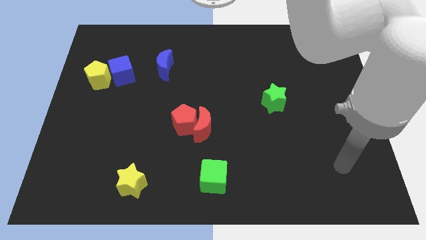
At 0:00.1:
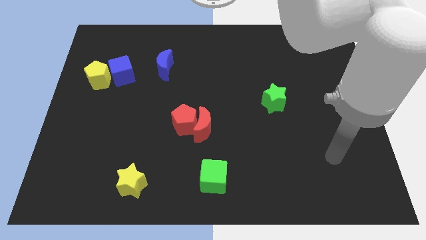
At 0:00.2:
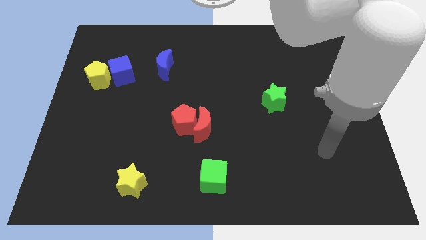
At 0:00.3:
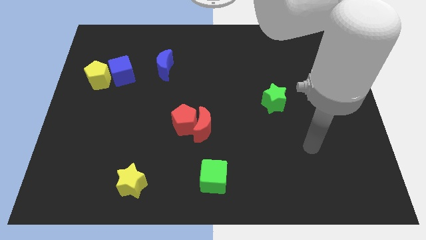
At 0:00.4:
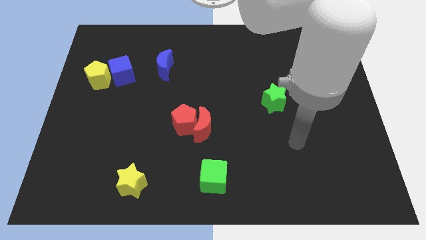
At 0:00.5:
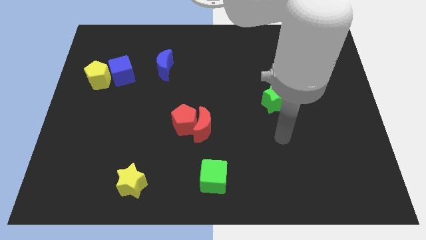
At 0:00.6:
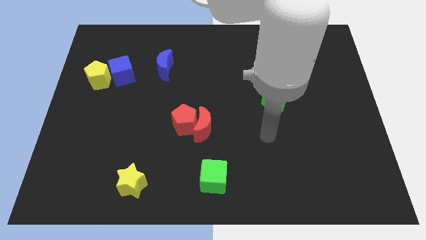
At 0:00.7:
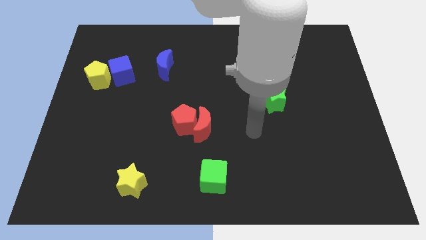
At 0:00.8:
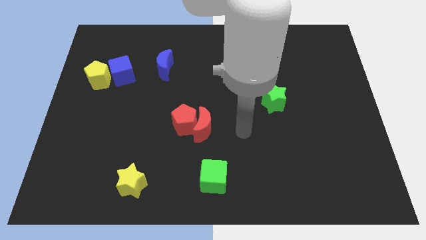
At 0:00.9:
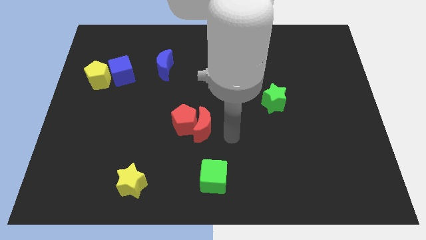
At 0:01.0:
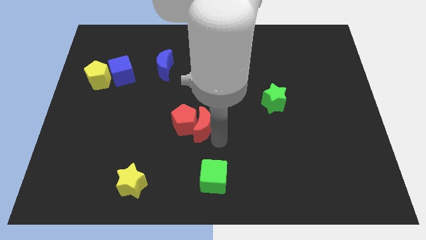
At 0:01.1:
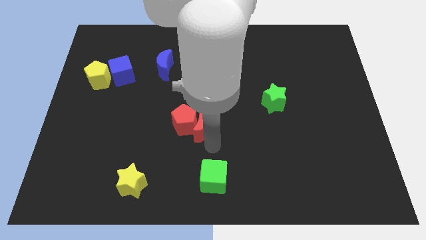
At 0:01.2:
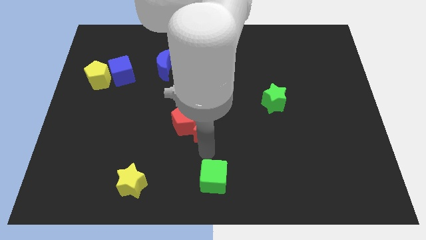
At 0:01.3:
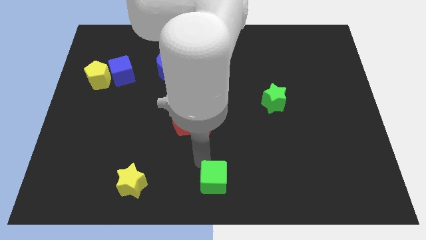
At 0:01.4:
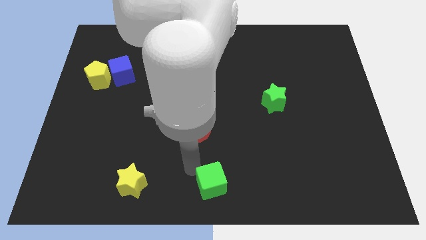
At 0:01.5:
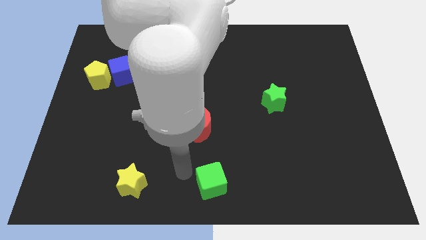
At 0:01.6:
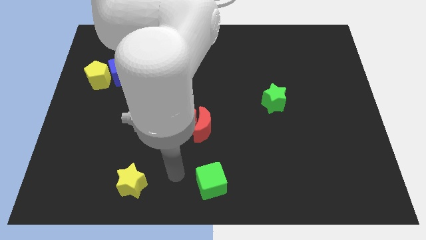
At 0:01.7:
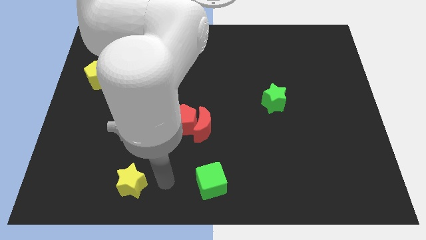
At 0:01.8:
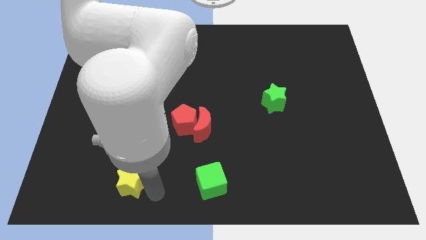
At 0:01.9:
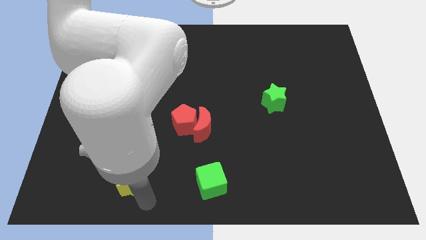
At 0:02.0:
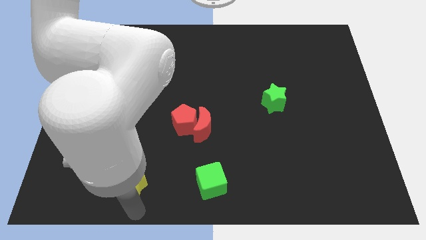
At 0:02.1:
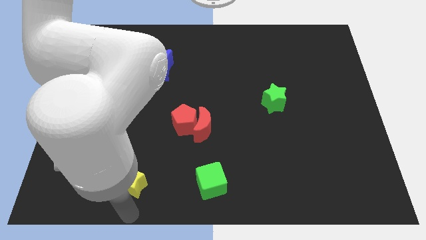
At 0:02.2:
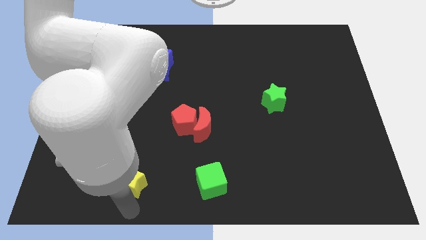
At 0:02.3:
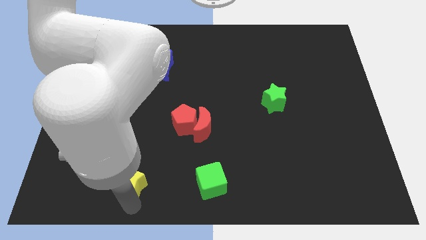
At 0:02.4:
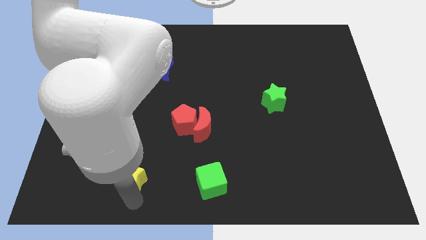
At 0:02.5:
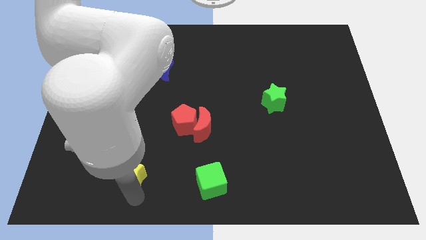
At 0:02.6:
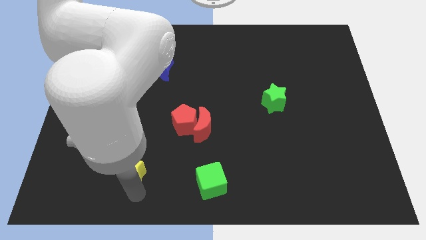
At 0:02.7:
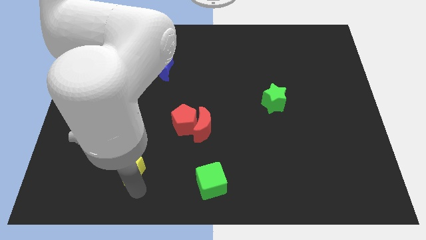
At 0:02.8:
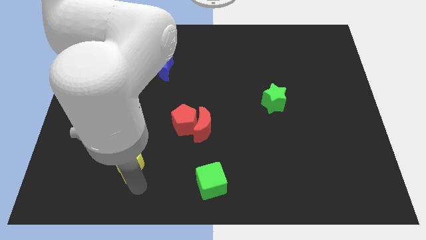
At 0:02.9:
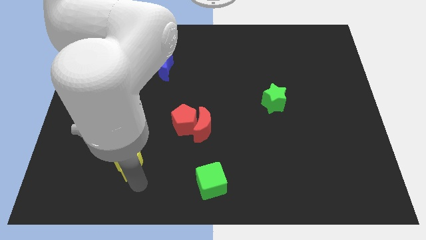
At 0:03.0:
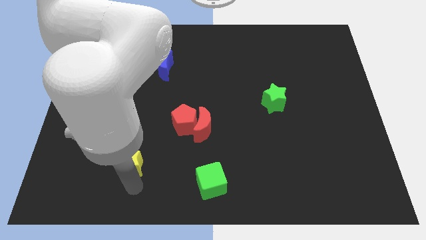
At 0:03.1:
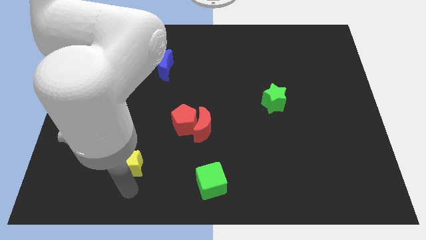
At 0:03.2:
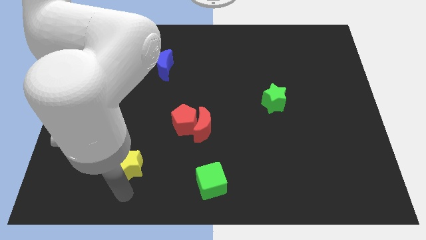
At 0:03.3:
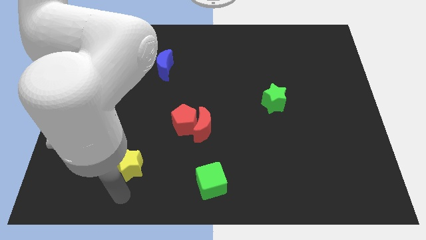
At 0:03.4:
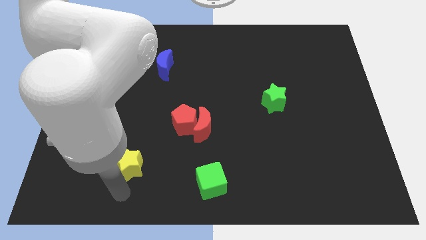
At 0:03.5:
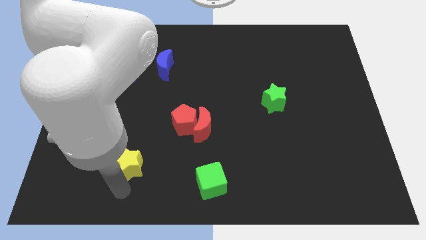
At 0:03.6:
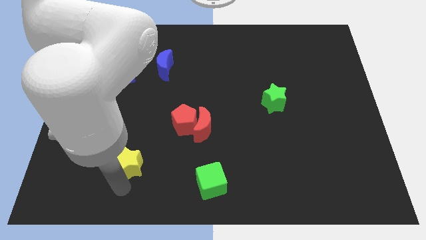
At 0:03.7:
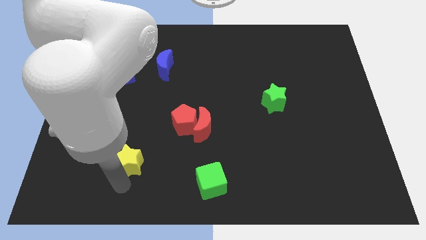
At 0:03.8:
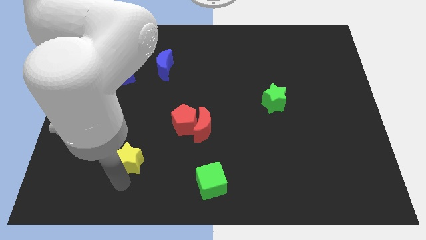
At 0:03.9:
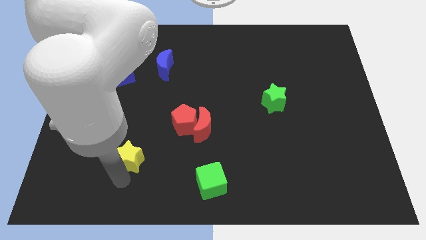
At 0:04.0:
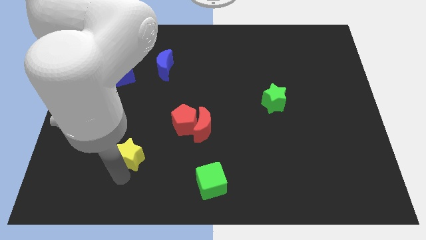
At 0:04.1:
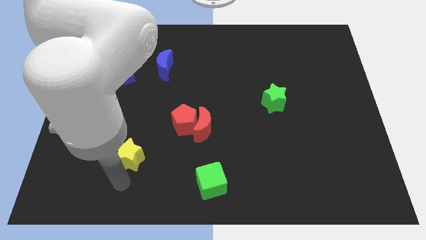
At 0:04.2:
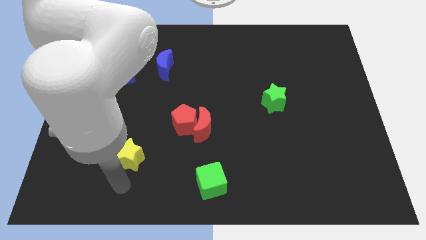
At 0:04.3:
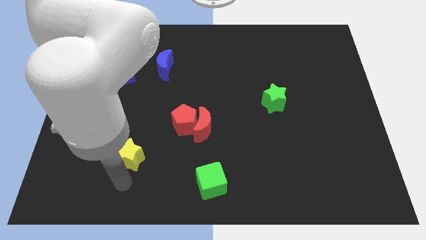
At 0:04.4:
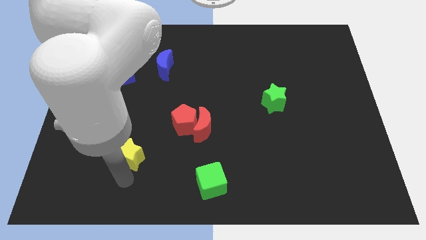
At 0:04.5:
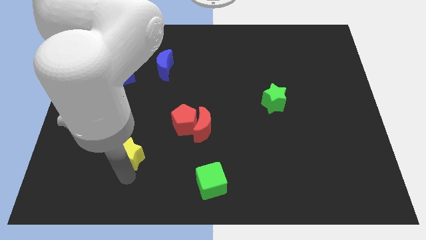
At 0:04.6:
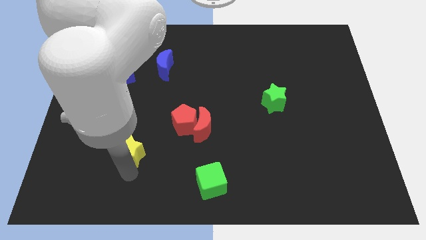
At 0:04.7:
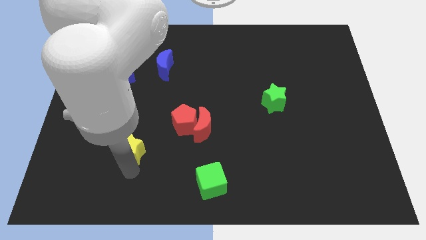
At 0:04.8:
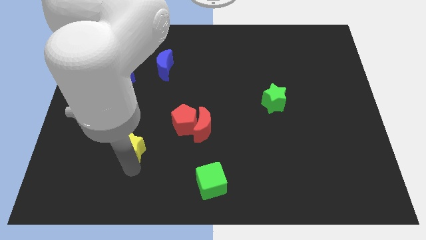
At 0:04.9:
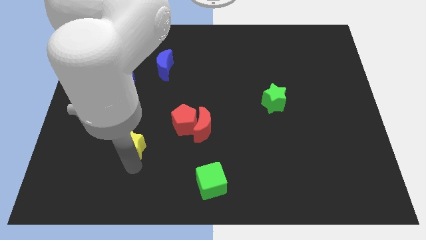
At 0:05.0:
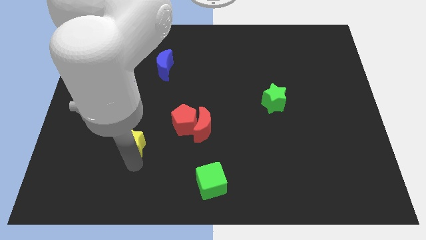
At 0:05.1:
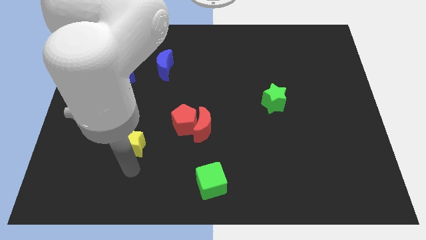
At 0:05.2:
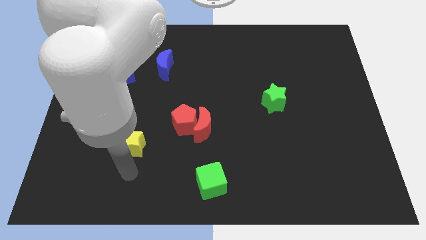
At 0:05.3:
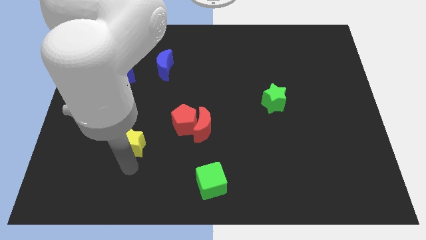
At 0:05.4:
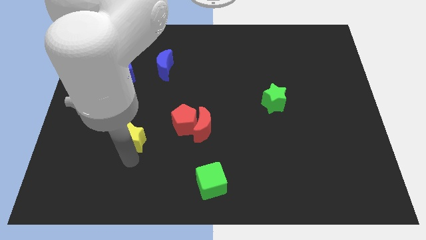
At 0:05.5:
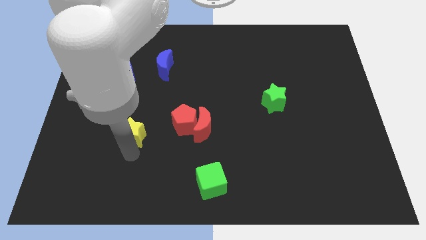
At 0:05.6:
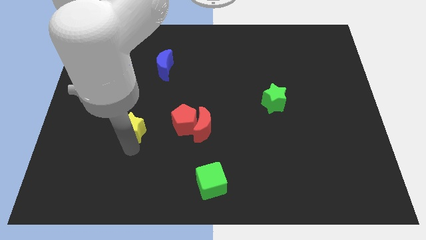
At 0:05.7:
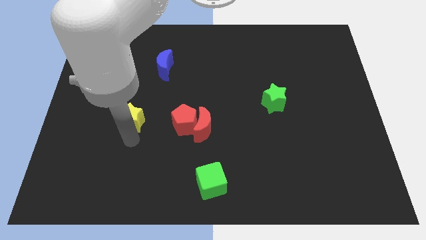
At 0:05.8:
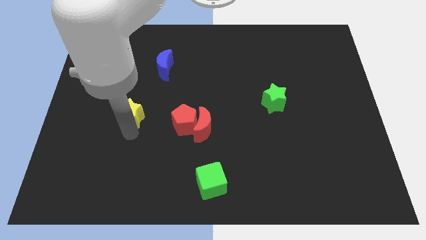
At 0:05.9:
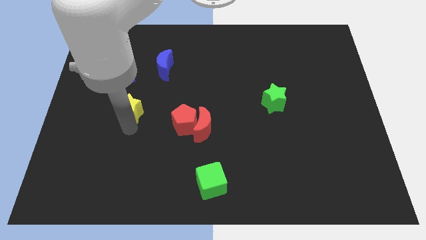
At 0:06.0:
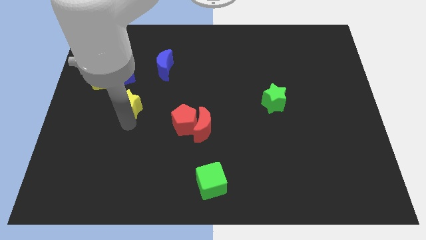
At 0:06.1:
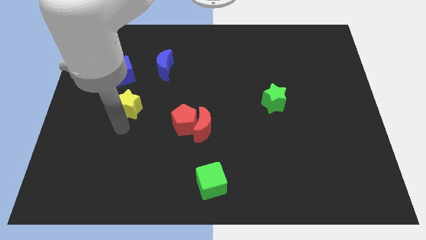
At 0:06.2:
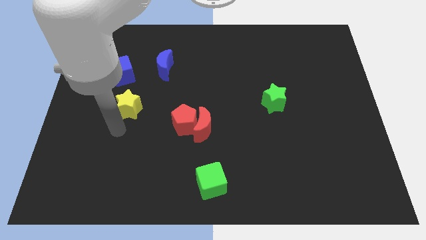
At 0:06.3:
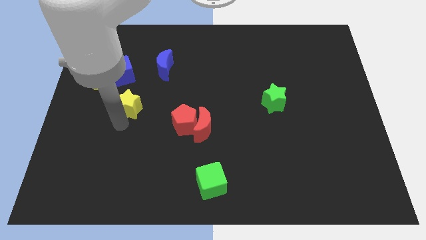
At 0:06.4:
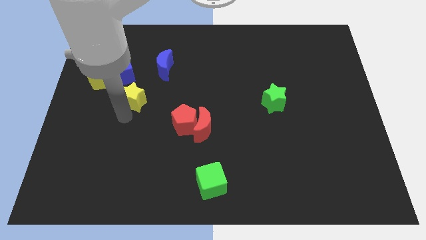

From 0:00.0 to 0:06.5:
put the yellow star diagonally down and to the left of the blue moon
